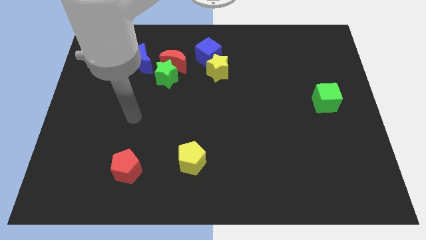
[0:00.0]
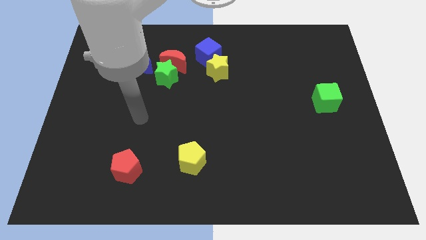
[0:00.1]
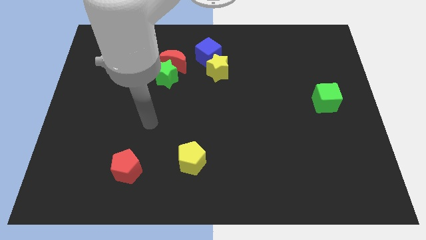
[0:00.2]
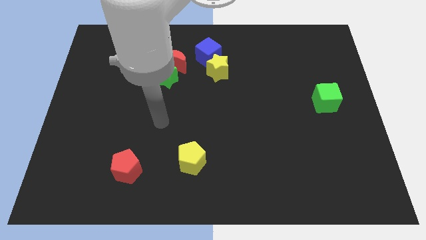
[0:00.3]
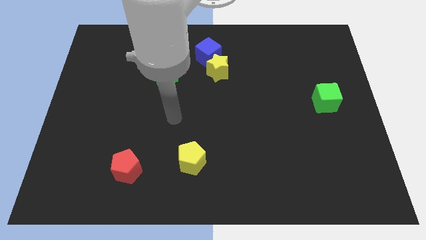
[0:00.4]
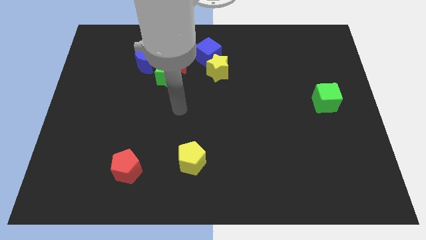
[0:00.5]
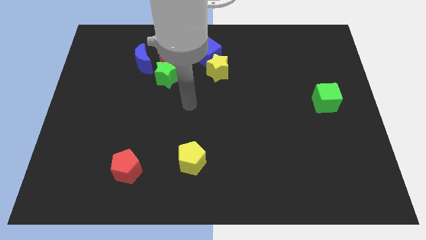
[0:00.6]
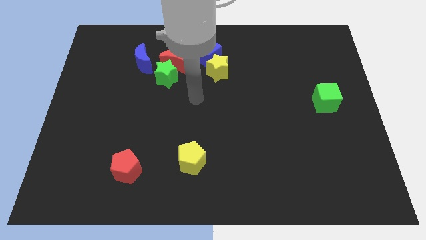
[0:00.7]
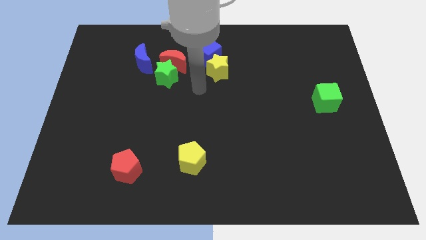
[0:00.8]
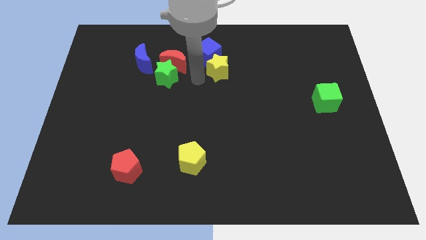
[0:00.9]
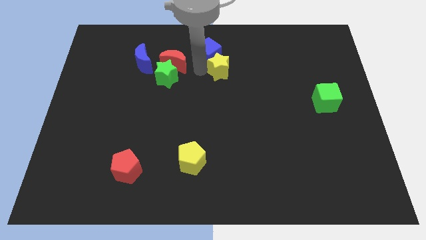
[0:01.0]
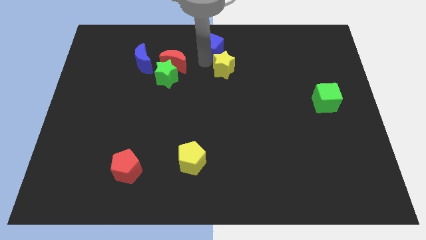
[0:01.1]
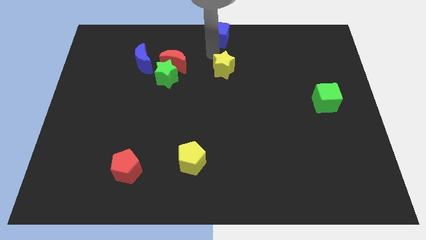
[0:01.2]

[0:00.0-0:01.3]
move the yellow star away from the blue cube

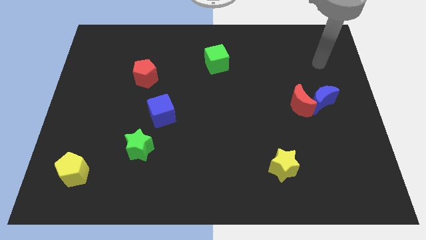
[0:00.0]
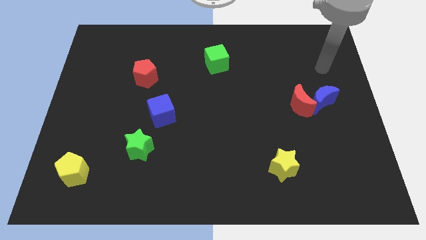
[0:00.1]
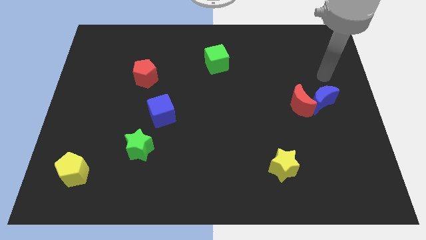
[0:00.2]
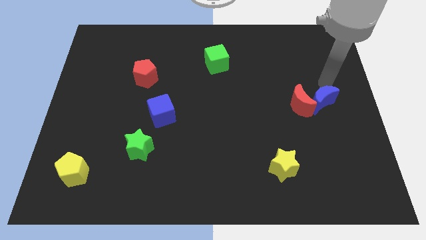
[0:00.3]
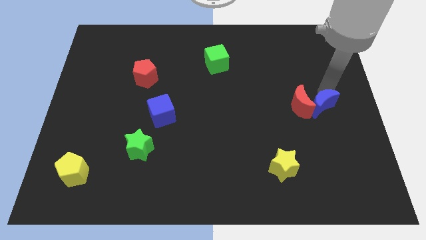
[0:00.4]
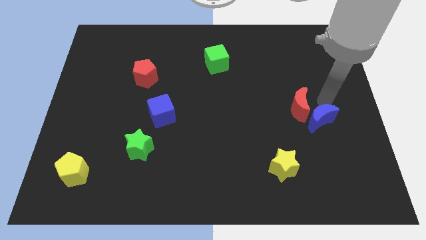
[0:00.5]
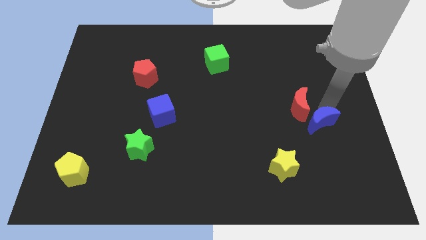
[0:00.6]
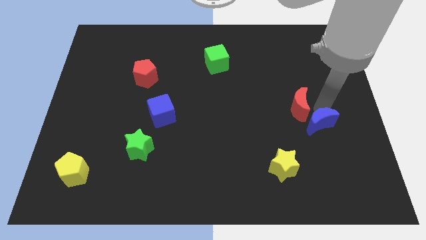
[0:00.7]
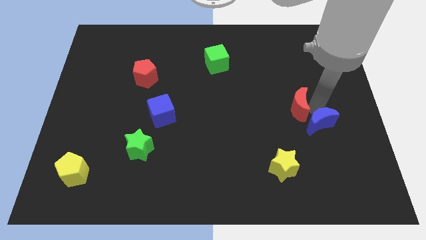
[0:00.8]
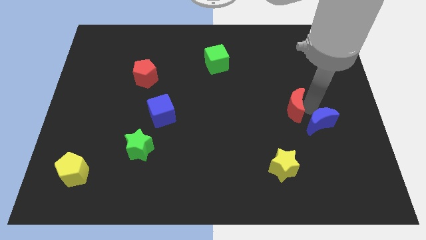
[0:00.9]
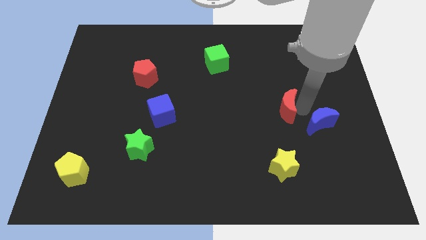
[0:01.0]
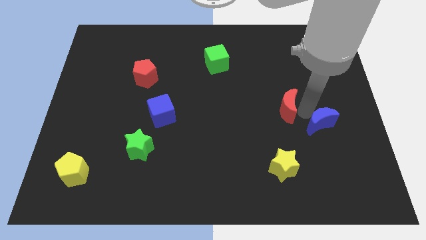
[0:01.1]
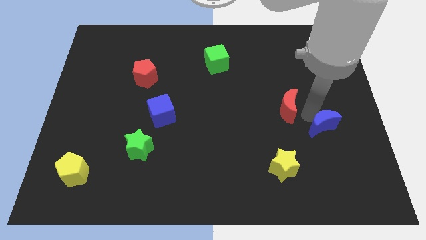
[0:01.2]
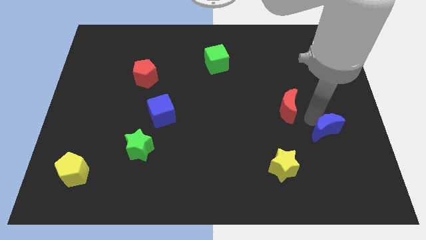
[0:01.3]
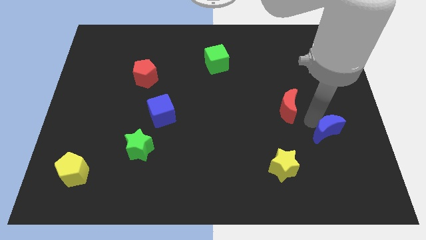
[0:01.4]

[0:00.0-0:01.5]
separate the red moon from the blue moon

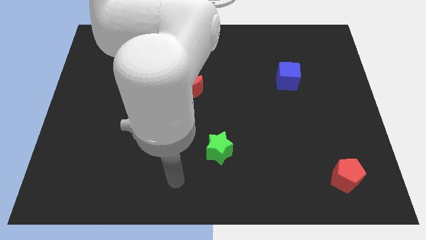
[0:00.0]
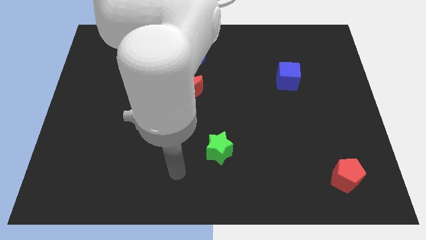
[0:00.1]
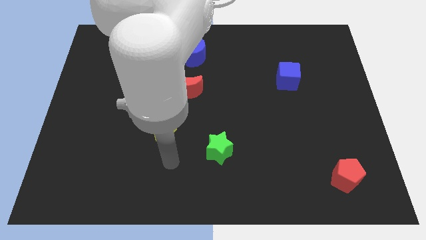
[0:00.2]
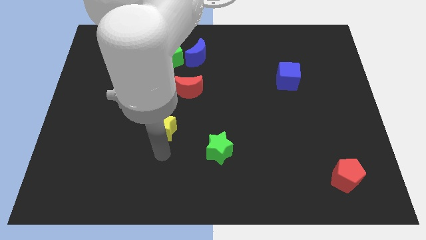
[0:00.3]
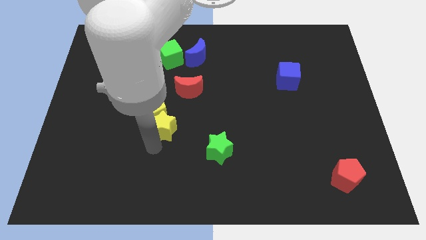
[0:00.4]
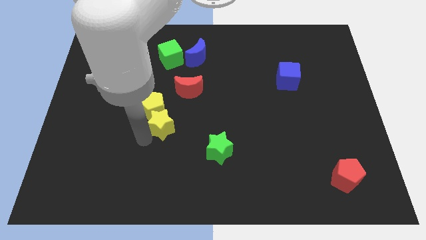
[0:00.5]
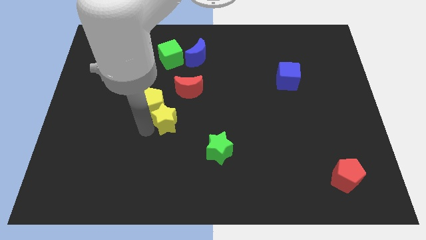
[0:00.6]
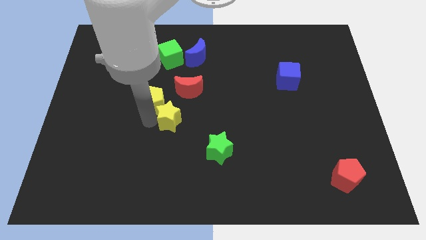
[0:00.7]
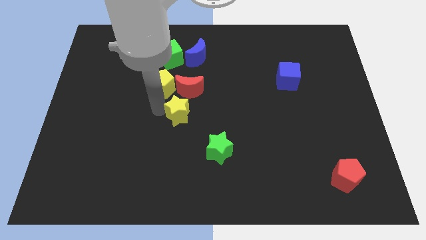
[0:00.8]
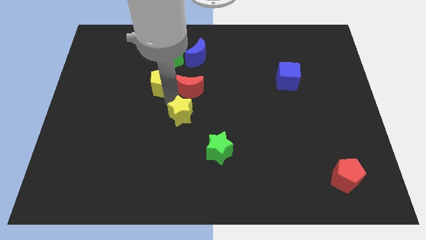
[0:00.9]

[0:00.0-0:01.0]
move the yellow star away from the yellow pentagon

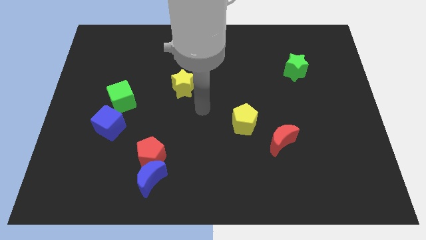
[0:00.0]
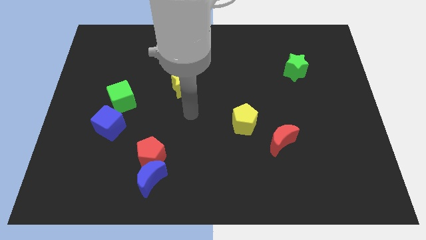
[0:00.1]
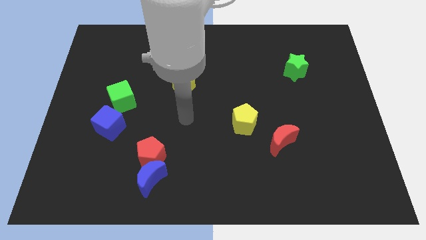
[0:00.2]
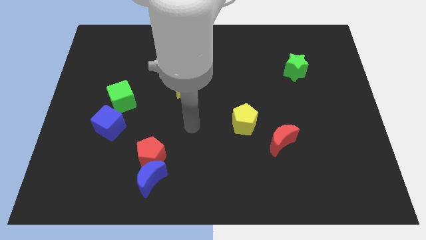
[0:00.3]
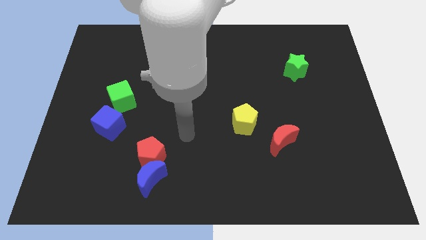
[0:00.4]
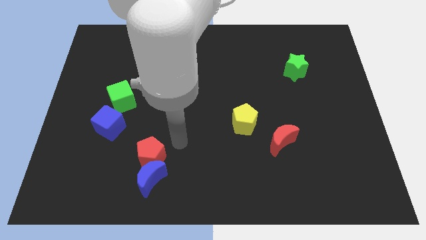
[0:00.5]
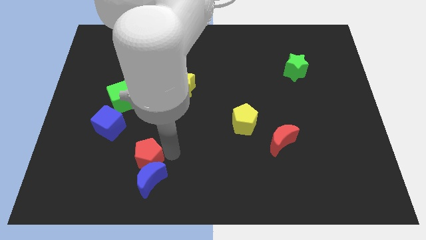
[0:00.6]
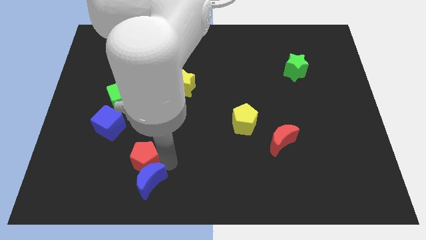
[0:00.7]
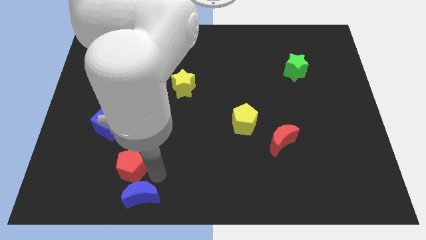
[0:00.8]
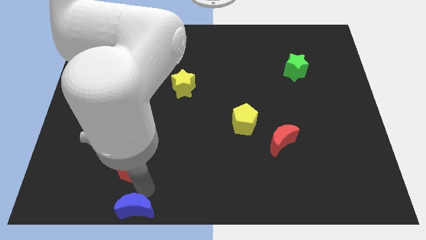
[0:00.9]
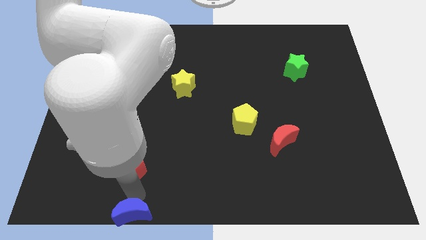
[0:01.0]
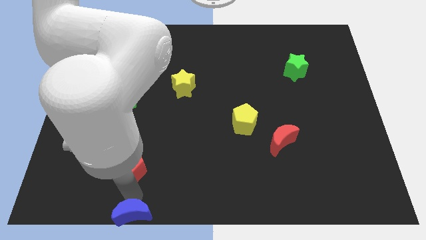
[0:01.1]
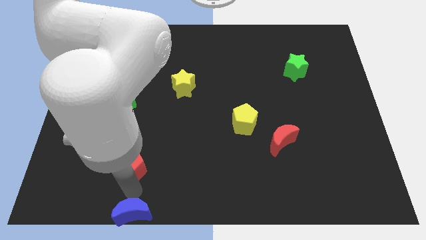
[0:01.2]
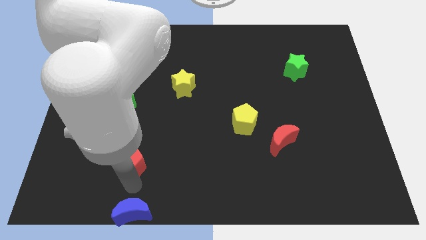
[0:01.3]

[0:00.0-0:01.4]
separate the red pentagon from the blue moon

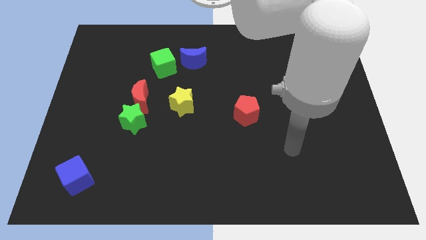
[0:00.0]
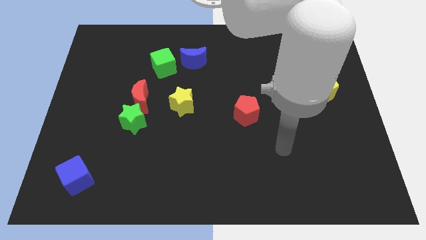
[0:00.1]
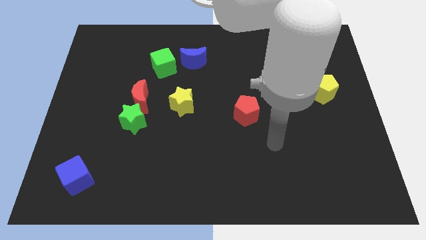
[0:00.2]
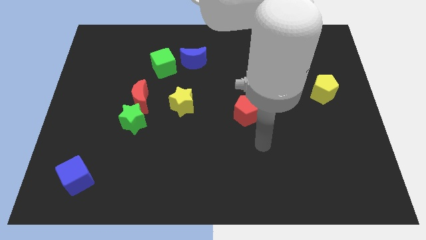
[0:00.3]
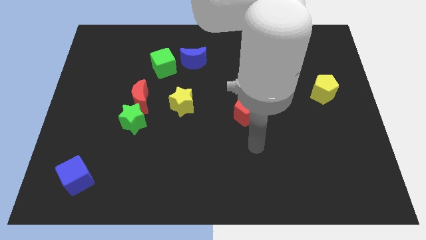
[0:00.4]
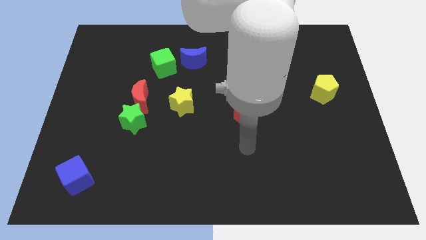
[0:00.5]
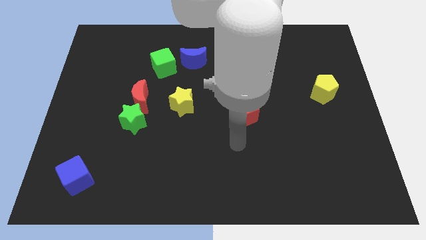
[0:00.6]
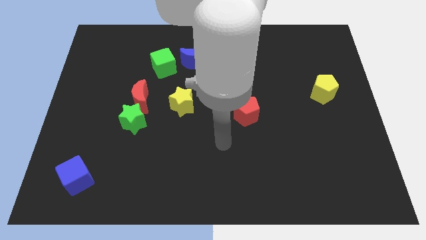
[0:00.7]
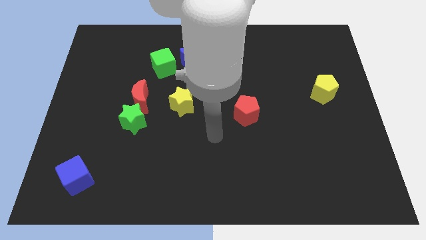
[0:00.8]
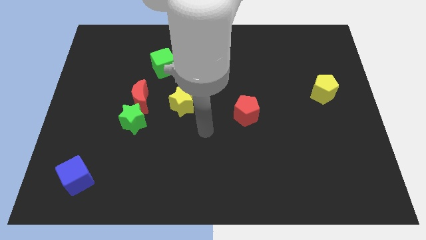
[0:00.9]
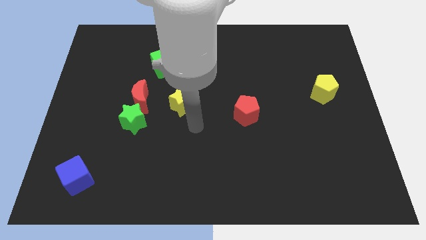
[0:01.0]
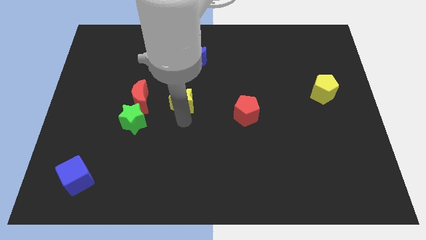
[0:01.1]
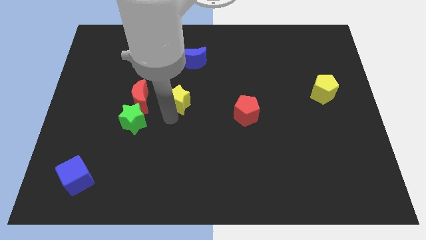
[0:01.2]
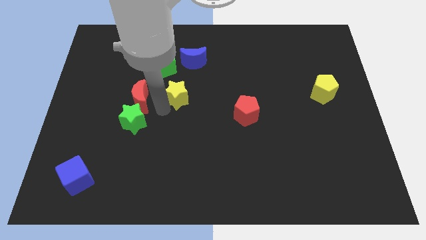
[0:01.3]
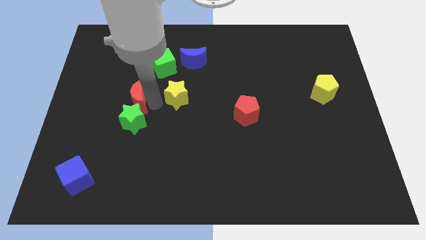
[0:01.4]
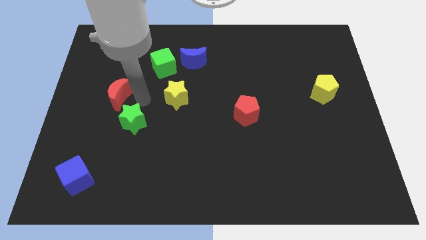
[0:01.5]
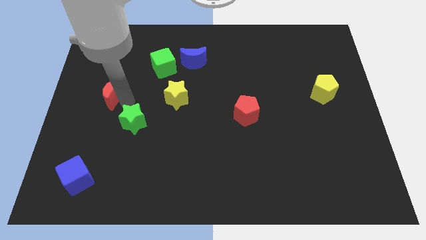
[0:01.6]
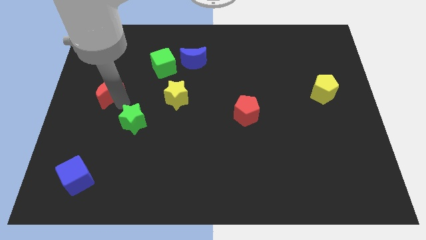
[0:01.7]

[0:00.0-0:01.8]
pull the green star apart from the red moon

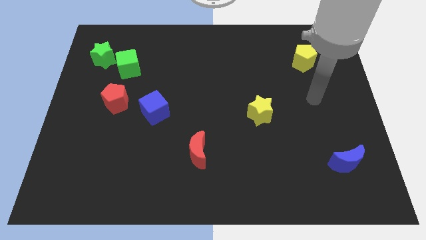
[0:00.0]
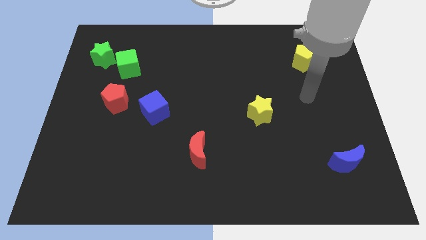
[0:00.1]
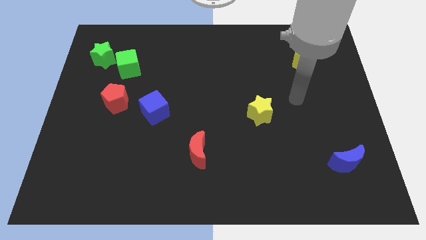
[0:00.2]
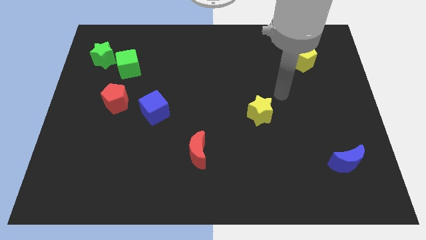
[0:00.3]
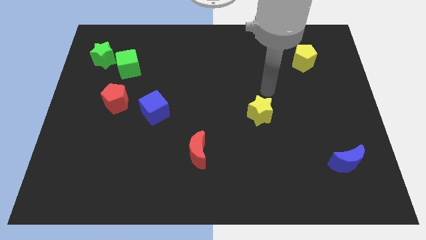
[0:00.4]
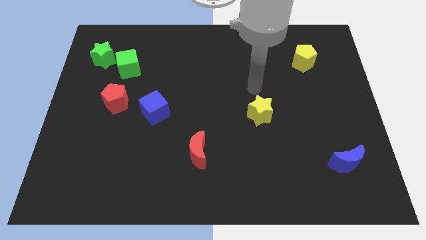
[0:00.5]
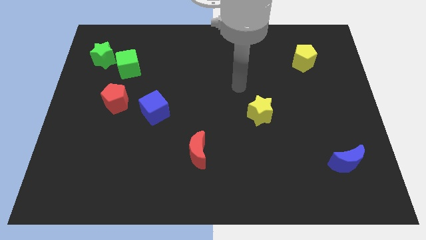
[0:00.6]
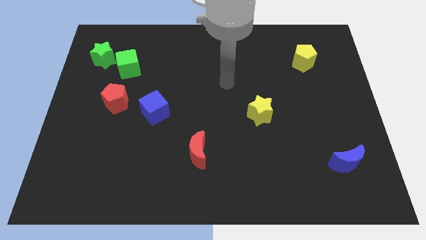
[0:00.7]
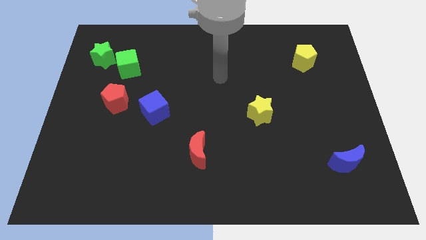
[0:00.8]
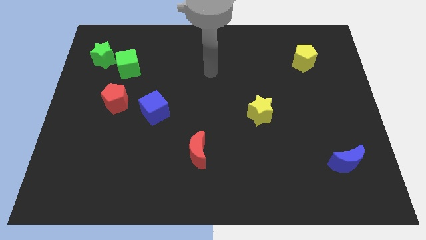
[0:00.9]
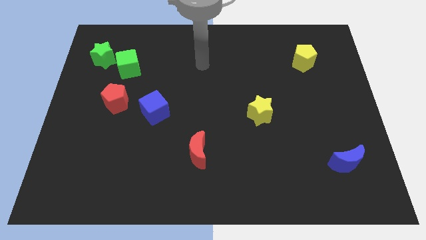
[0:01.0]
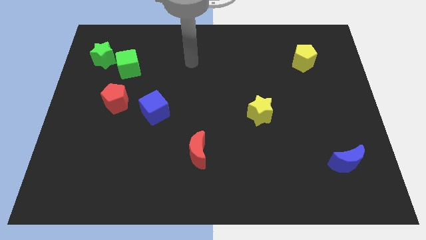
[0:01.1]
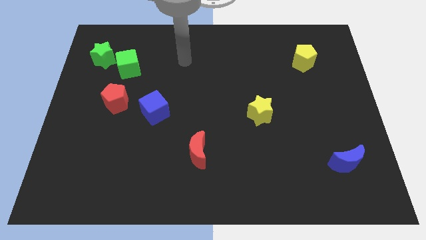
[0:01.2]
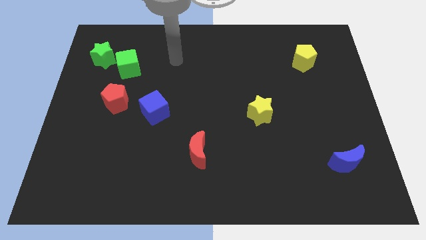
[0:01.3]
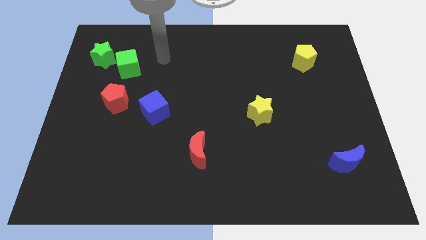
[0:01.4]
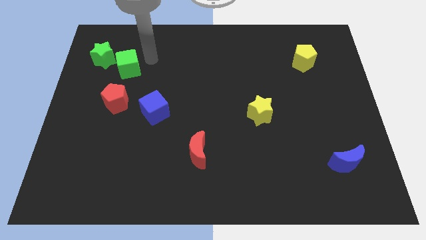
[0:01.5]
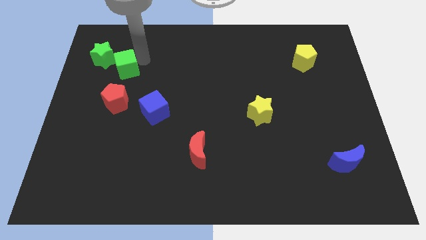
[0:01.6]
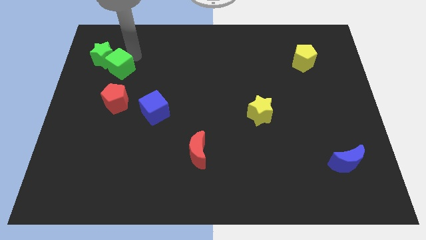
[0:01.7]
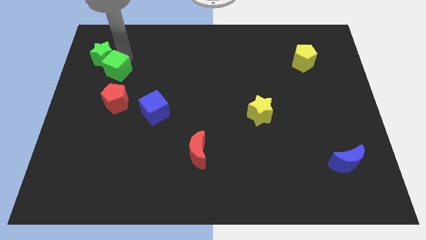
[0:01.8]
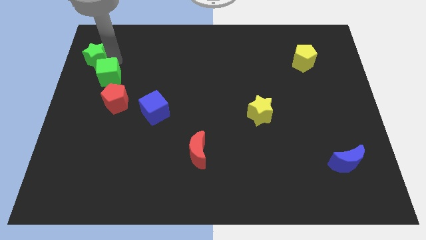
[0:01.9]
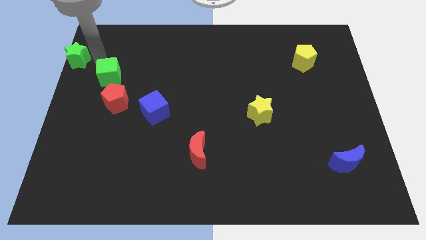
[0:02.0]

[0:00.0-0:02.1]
pull the green cube apart from the green star

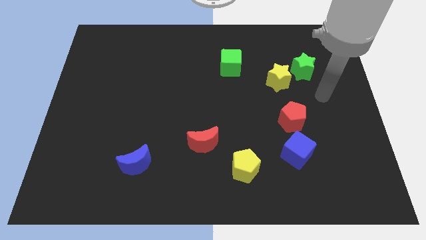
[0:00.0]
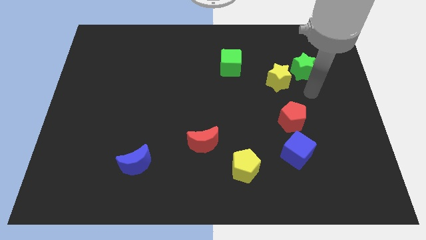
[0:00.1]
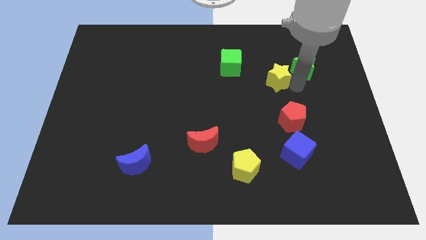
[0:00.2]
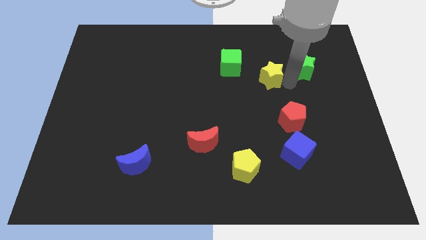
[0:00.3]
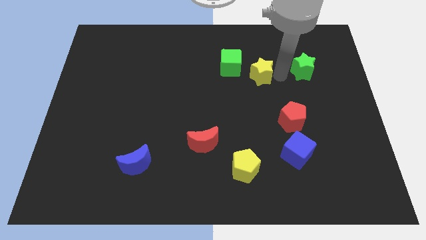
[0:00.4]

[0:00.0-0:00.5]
pull the green star apart from the yellow star
